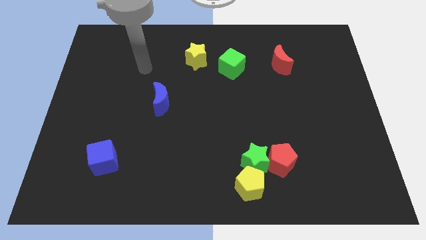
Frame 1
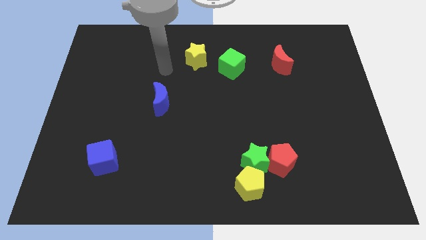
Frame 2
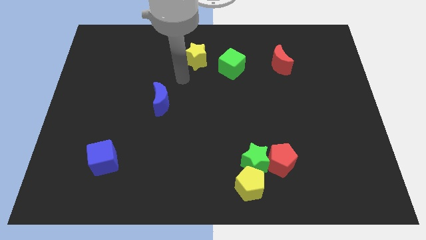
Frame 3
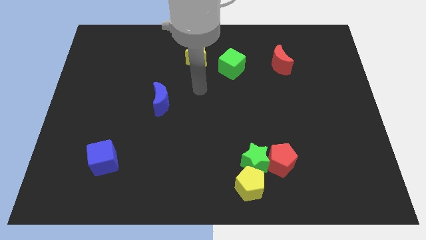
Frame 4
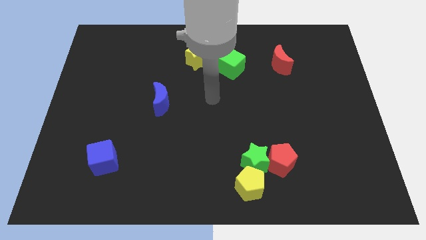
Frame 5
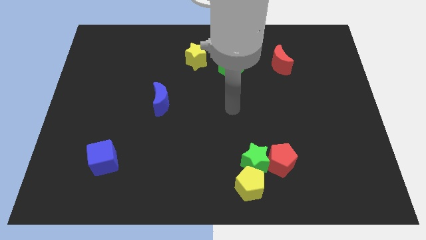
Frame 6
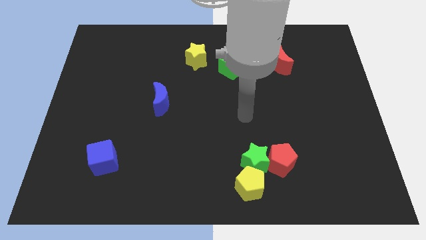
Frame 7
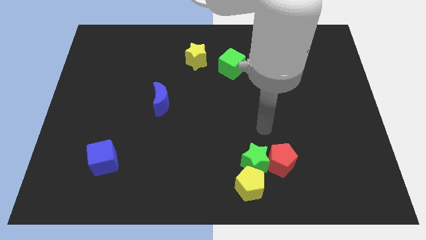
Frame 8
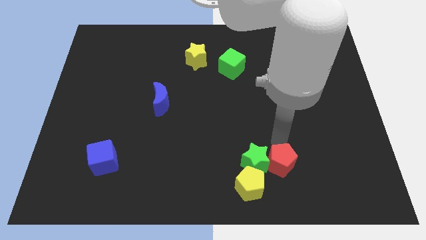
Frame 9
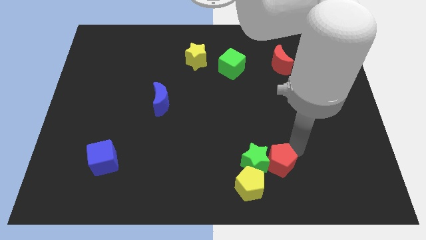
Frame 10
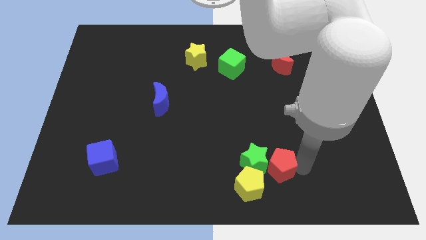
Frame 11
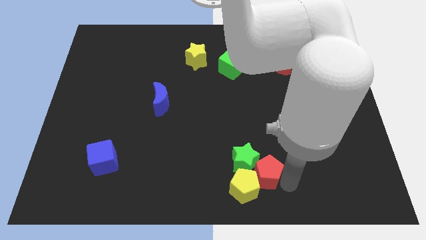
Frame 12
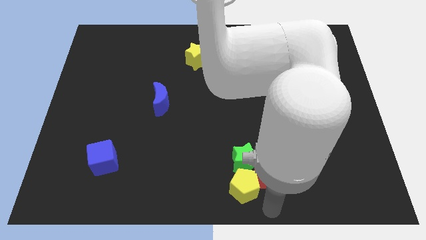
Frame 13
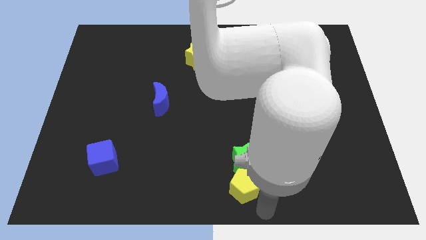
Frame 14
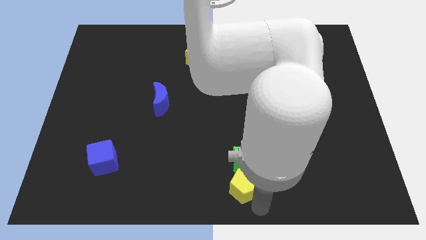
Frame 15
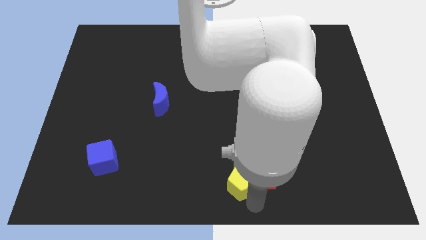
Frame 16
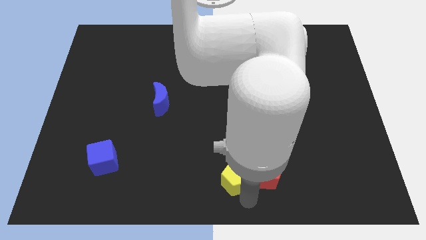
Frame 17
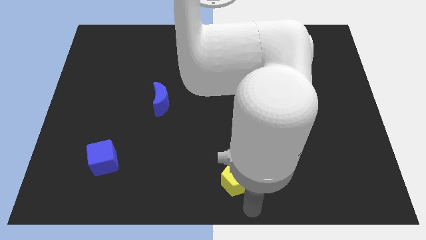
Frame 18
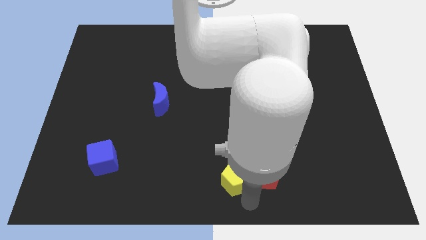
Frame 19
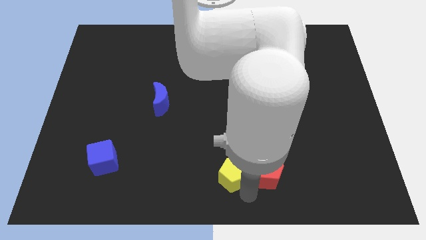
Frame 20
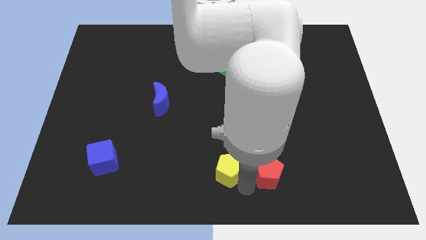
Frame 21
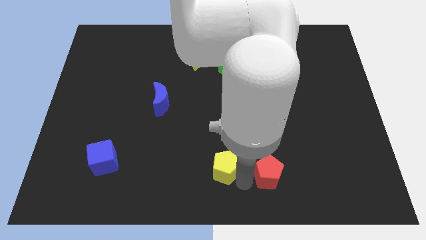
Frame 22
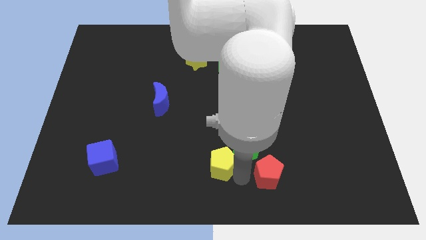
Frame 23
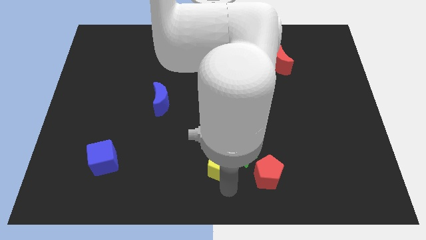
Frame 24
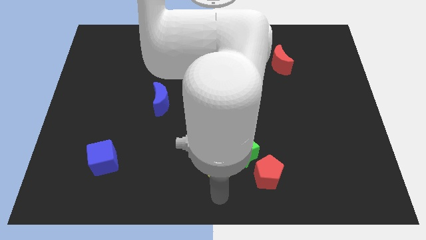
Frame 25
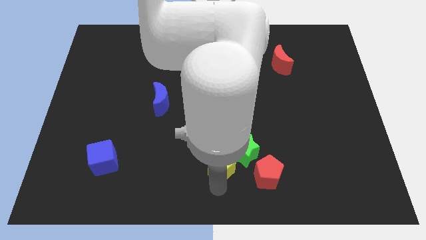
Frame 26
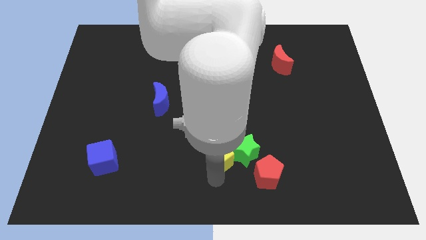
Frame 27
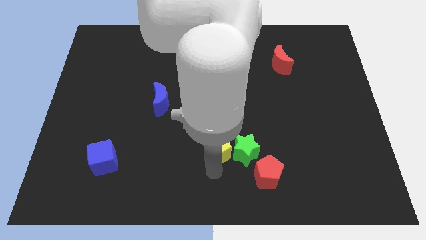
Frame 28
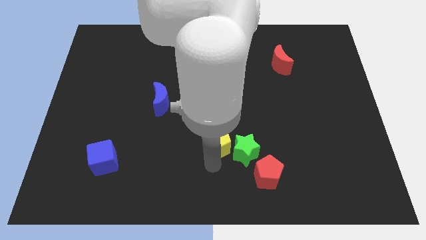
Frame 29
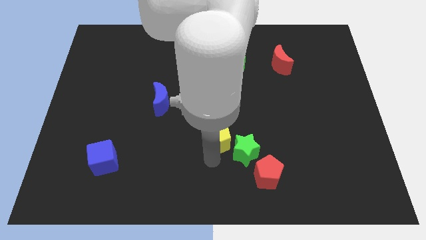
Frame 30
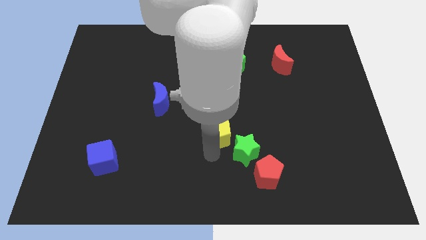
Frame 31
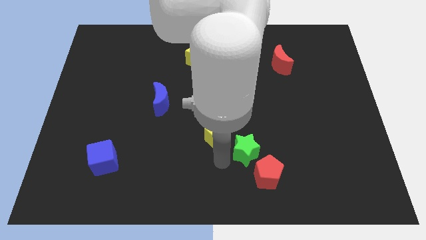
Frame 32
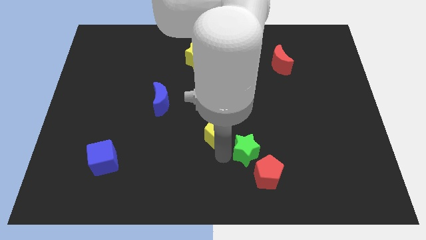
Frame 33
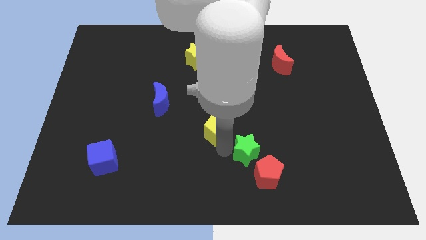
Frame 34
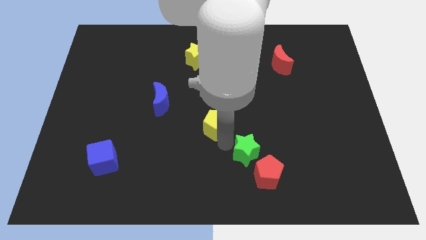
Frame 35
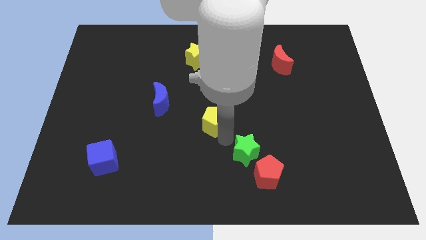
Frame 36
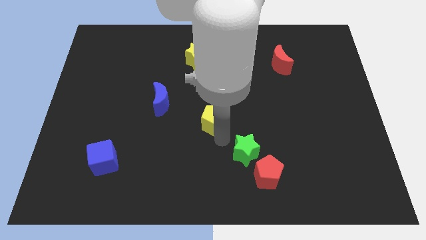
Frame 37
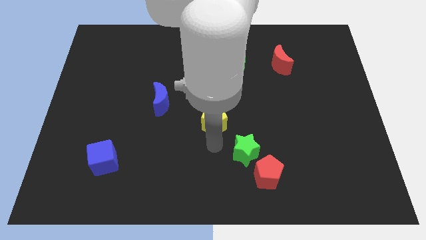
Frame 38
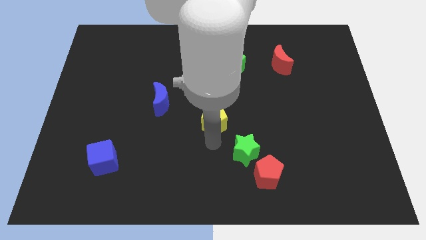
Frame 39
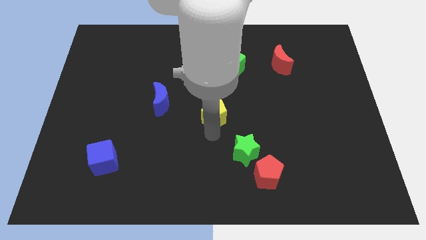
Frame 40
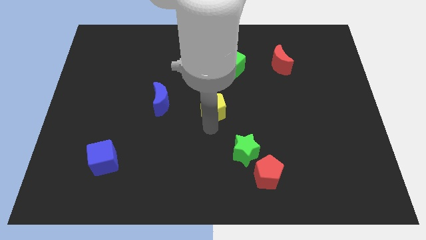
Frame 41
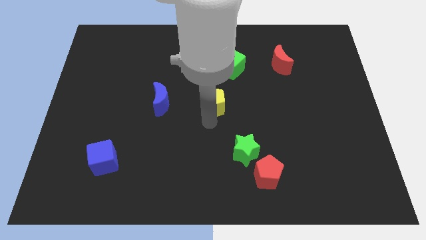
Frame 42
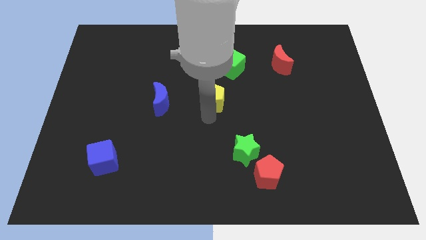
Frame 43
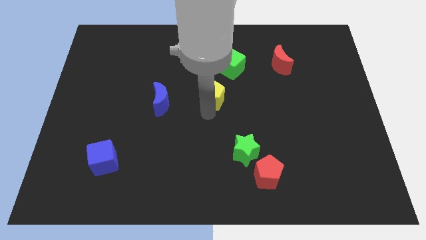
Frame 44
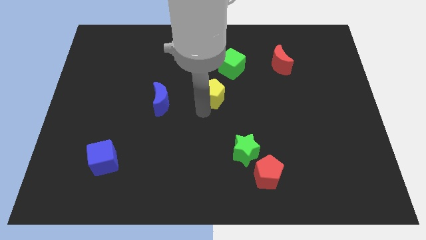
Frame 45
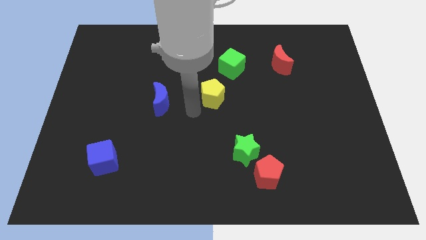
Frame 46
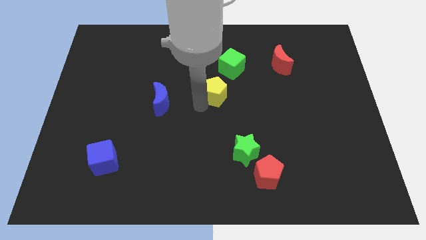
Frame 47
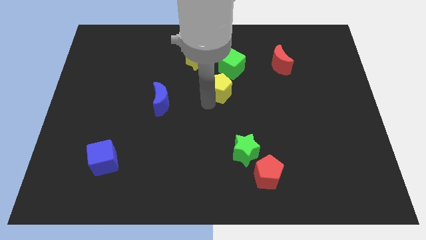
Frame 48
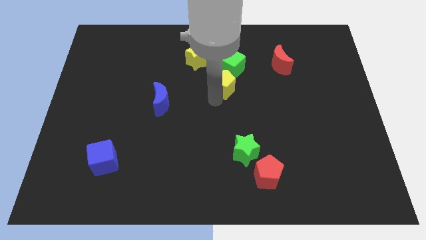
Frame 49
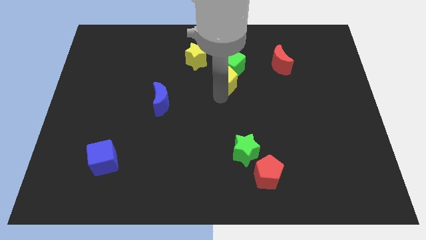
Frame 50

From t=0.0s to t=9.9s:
put the yellow pentagon to the green cube

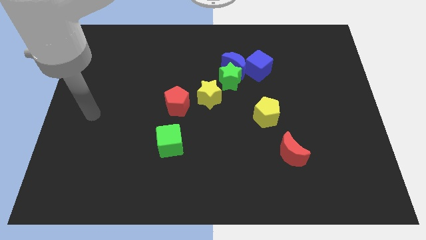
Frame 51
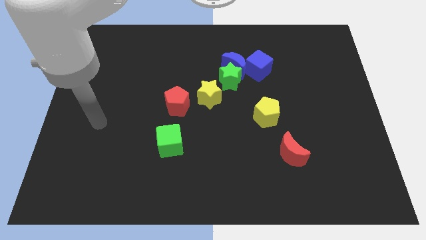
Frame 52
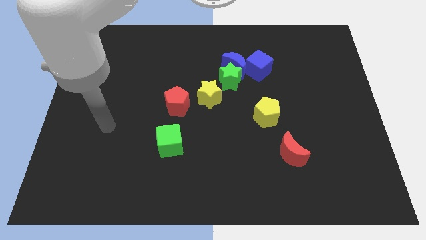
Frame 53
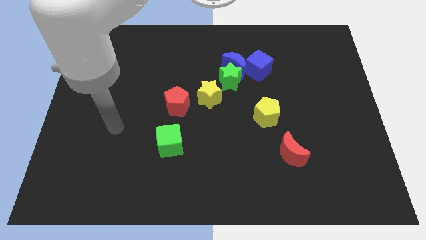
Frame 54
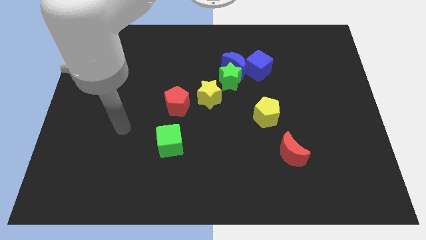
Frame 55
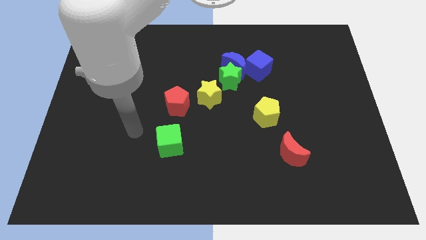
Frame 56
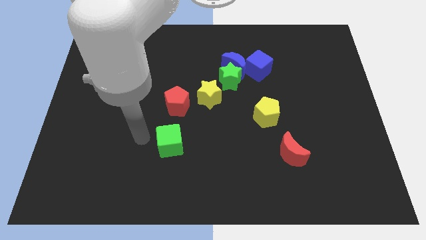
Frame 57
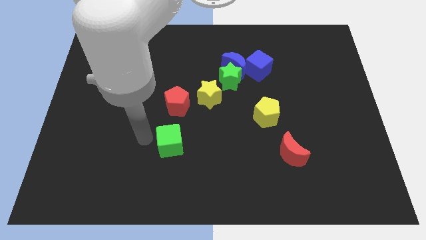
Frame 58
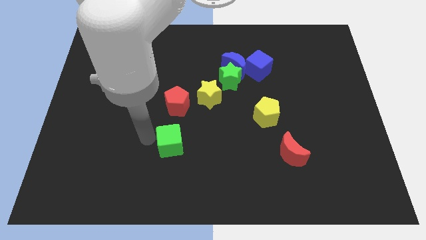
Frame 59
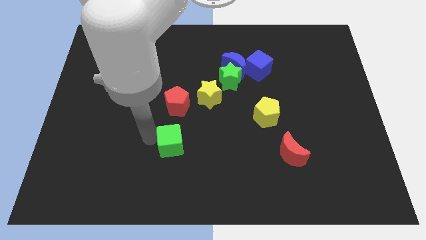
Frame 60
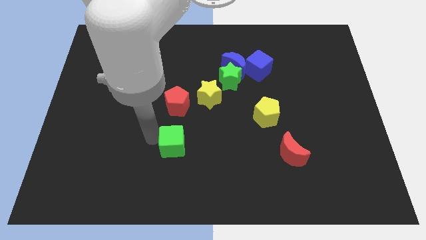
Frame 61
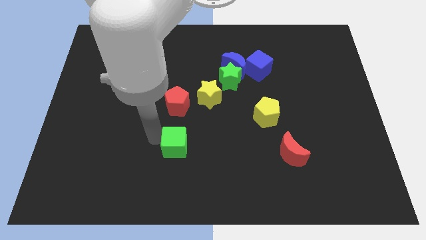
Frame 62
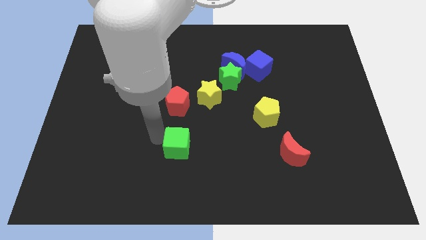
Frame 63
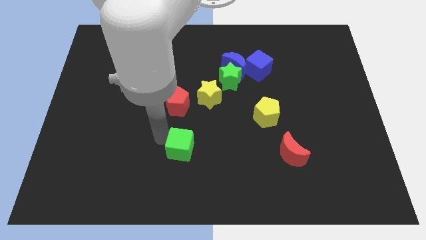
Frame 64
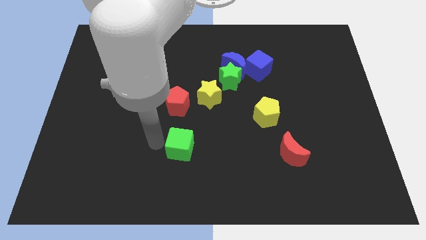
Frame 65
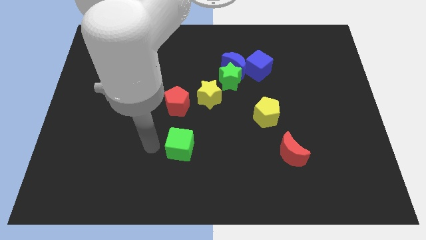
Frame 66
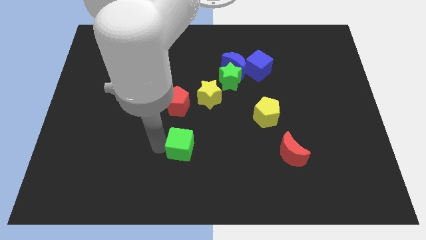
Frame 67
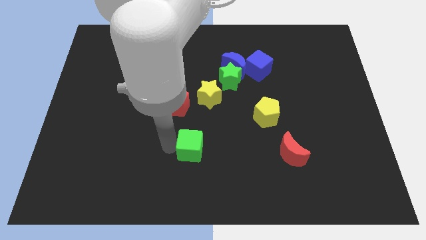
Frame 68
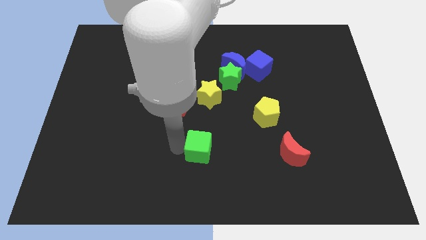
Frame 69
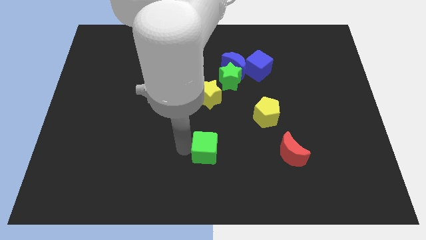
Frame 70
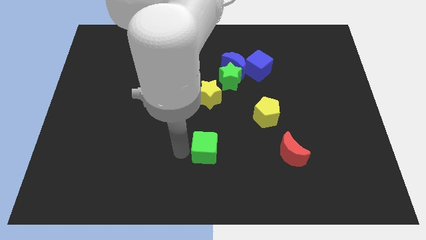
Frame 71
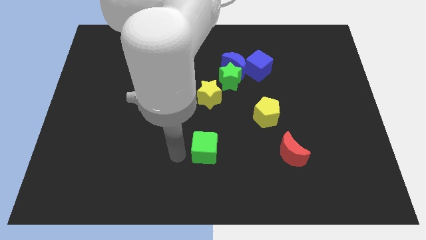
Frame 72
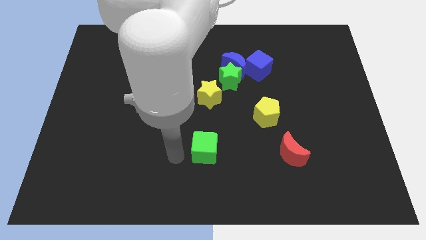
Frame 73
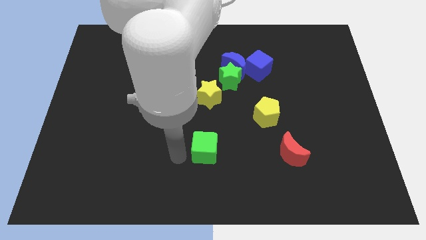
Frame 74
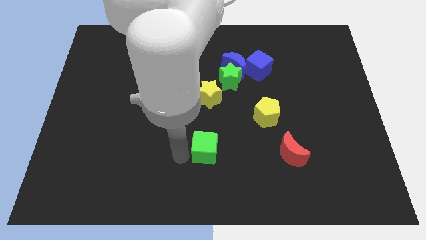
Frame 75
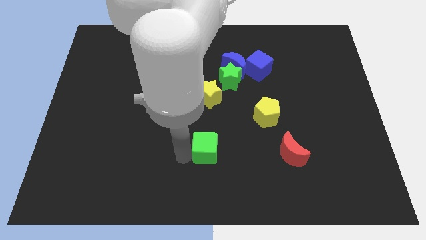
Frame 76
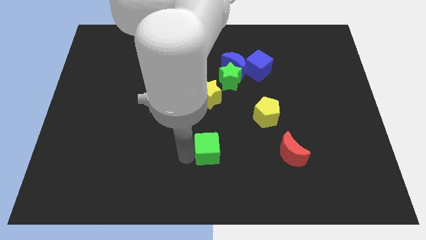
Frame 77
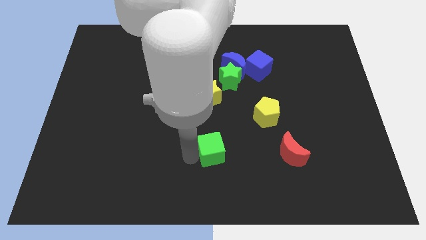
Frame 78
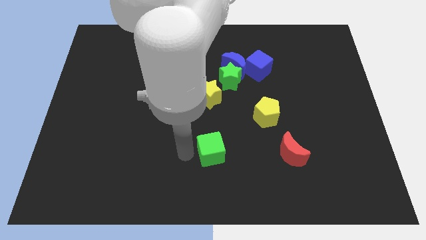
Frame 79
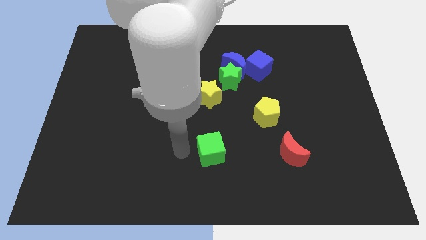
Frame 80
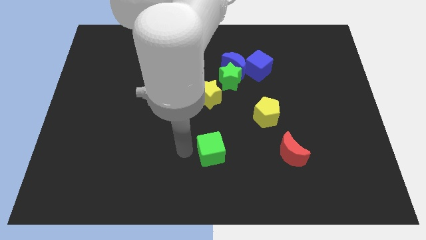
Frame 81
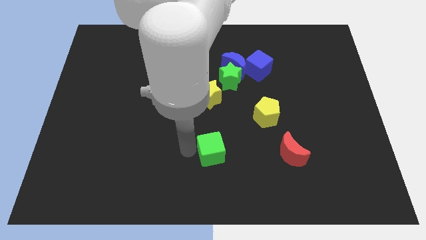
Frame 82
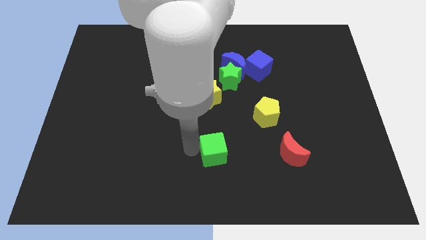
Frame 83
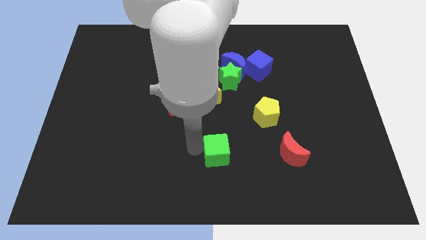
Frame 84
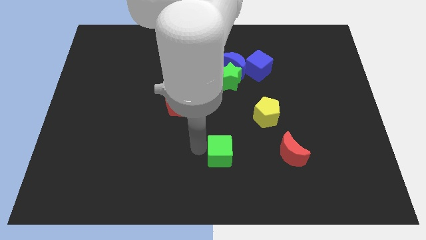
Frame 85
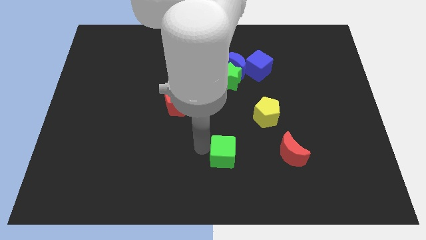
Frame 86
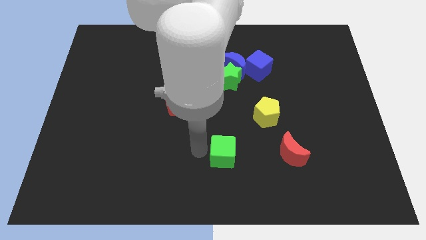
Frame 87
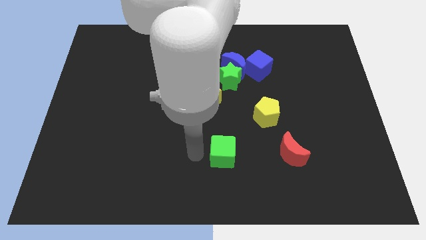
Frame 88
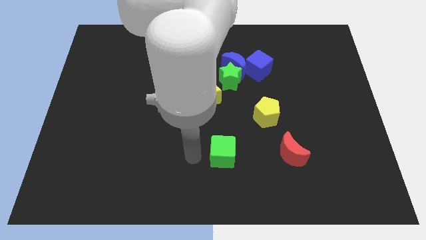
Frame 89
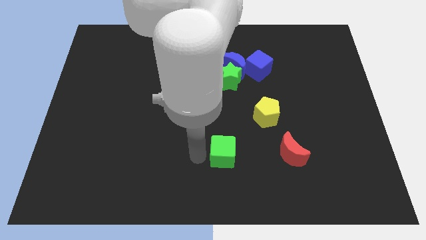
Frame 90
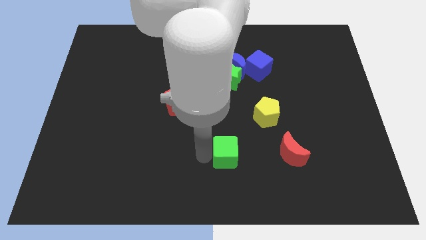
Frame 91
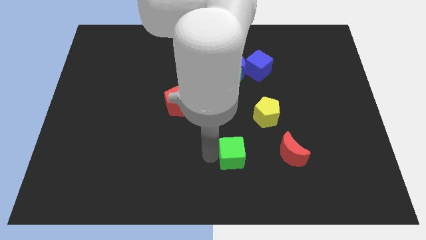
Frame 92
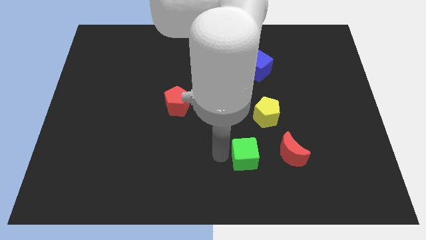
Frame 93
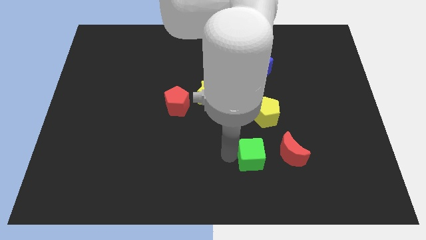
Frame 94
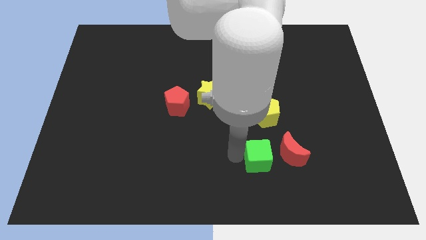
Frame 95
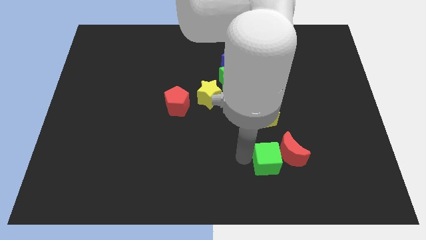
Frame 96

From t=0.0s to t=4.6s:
push the green cube next to the red moon
